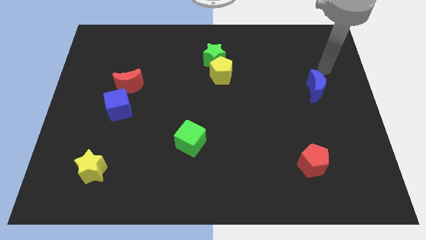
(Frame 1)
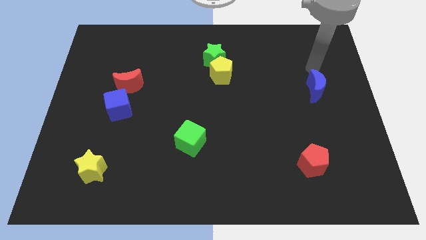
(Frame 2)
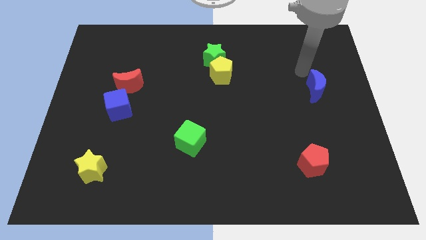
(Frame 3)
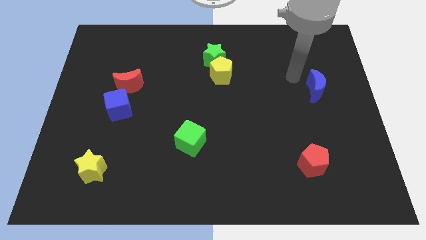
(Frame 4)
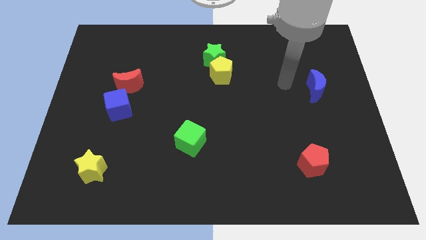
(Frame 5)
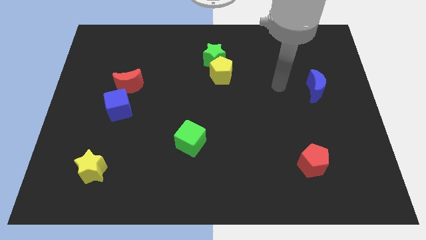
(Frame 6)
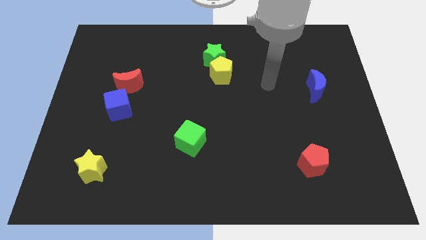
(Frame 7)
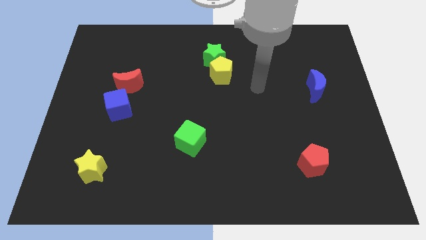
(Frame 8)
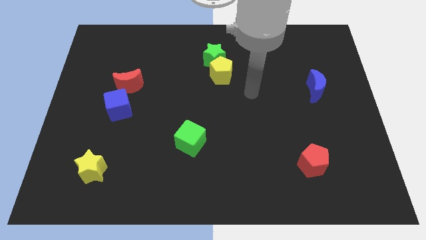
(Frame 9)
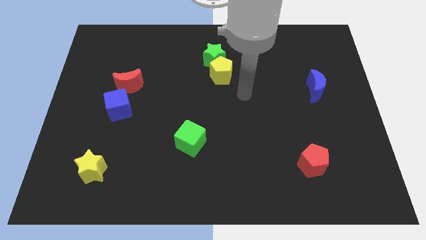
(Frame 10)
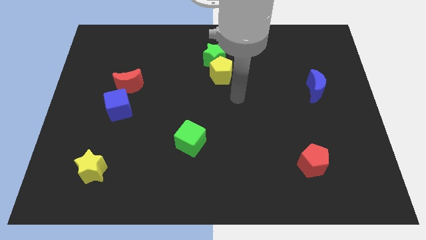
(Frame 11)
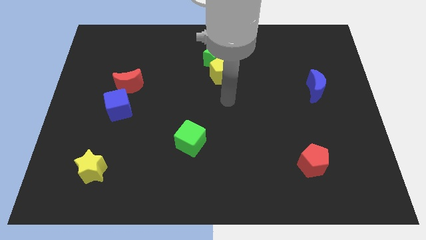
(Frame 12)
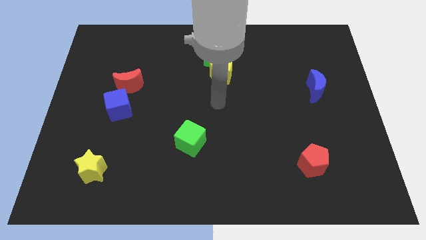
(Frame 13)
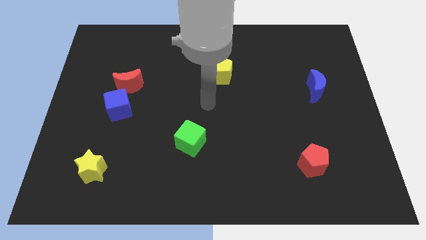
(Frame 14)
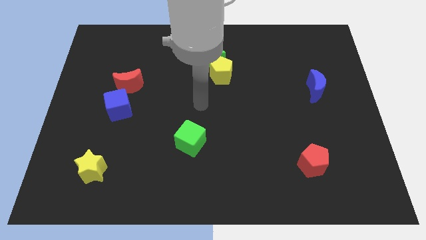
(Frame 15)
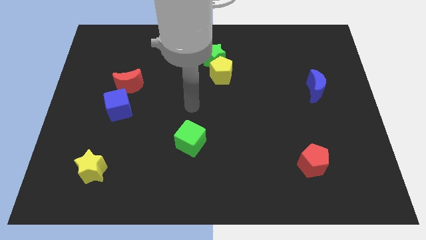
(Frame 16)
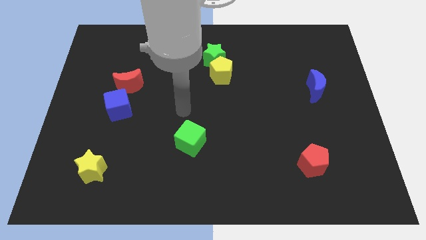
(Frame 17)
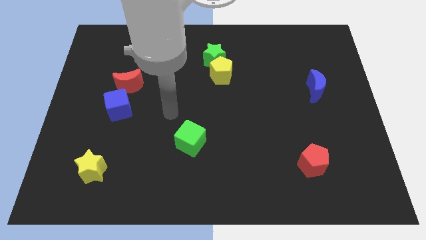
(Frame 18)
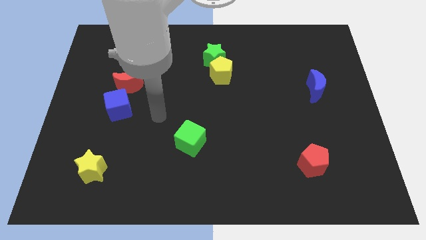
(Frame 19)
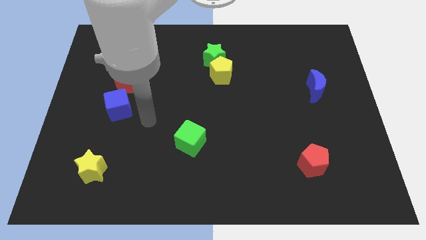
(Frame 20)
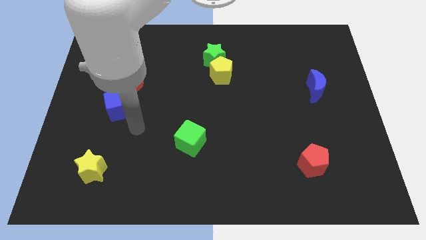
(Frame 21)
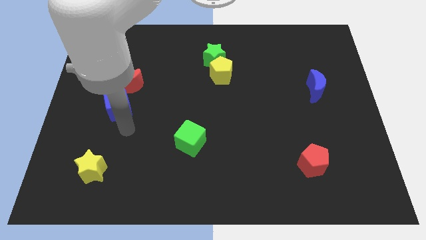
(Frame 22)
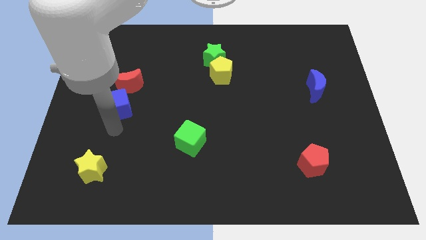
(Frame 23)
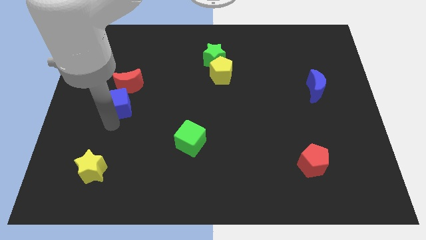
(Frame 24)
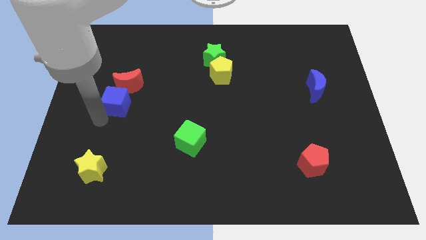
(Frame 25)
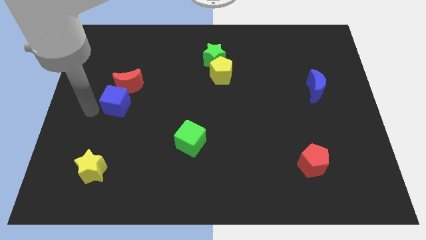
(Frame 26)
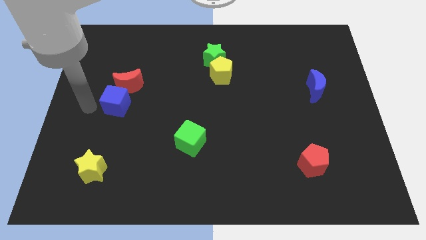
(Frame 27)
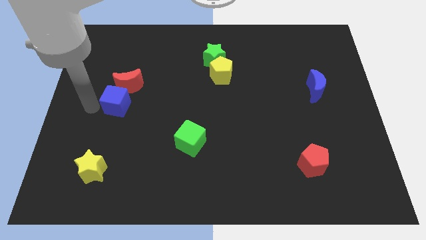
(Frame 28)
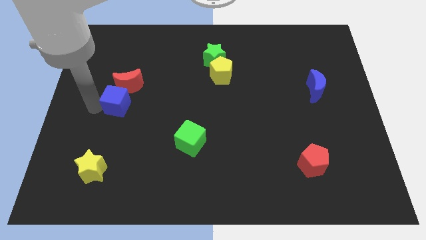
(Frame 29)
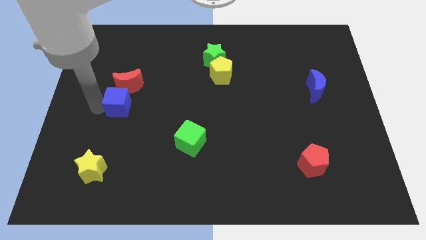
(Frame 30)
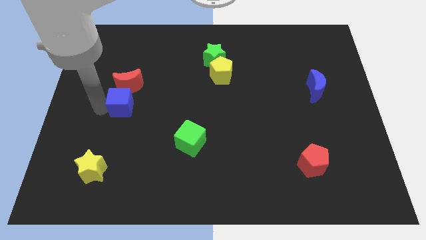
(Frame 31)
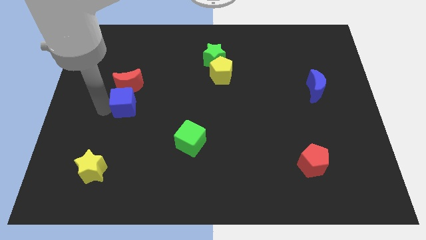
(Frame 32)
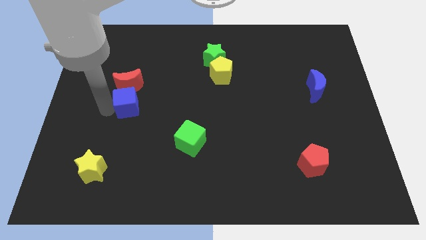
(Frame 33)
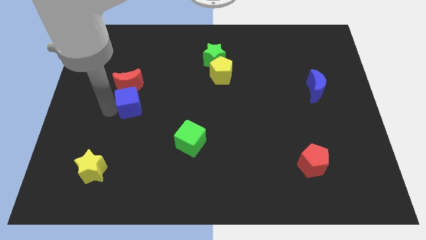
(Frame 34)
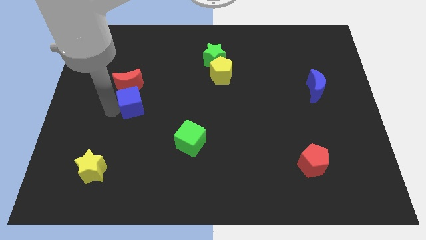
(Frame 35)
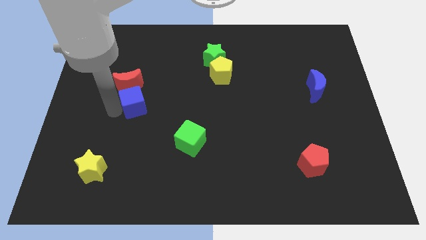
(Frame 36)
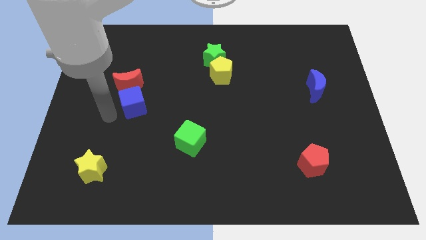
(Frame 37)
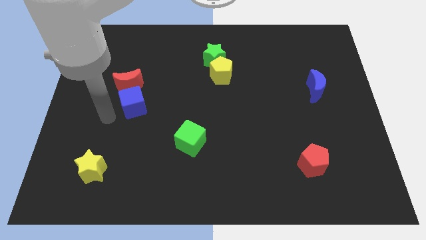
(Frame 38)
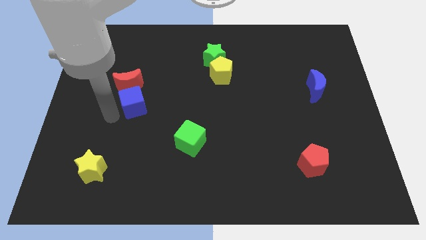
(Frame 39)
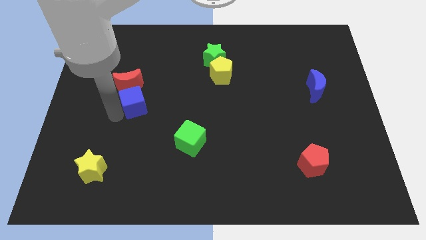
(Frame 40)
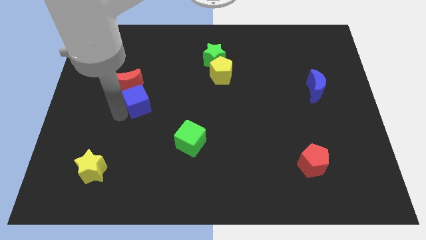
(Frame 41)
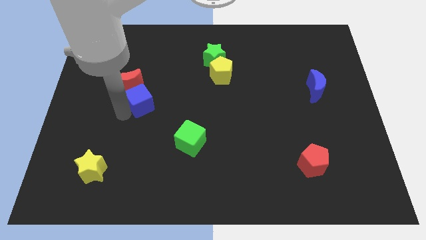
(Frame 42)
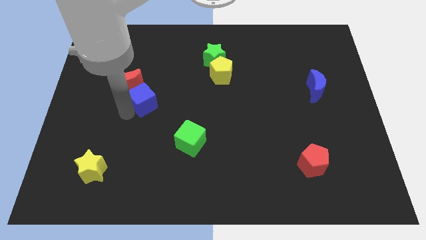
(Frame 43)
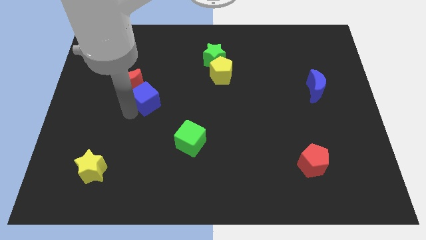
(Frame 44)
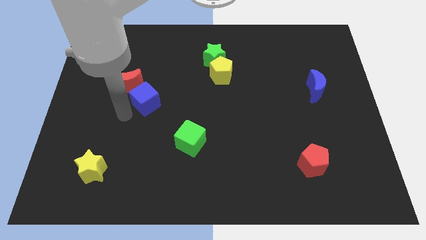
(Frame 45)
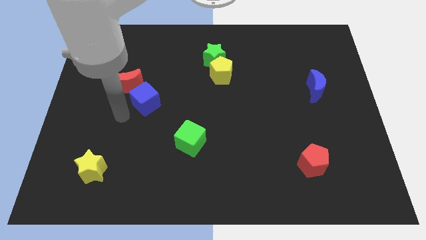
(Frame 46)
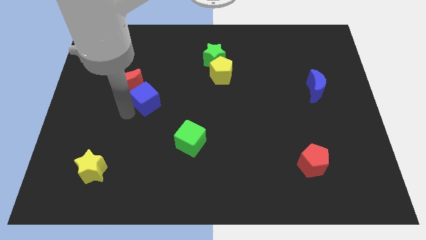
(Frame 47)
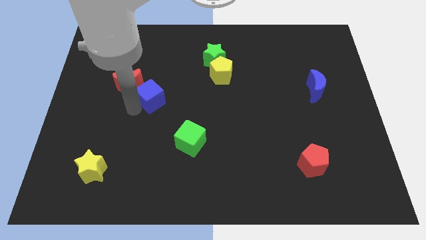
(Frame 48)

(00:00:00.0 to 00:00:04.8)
push the blue cube up and then to the right a bit

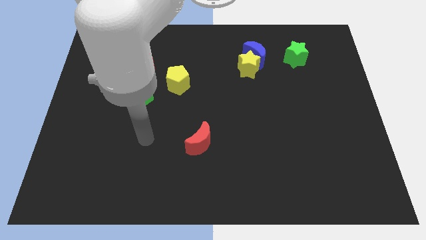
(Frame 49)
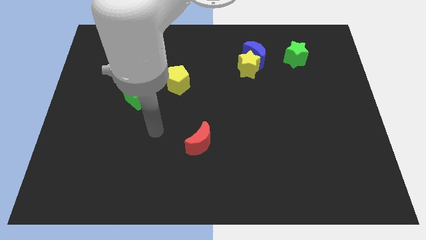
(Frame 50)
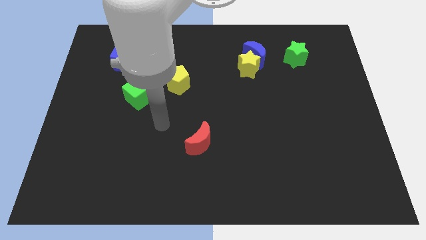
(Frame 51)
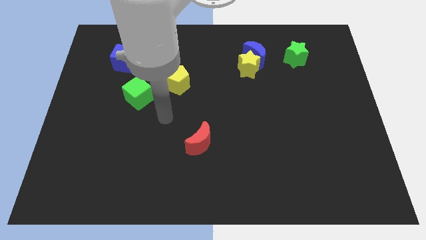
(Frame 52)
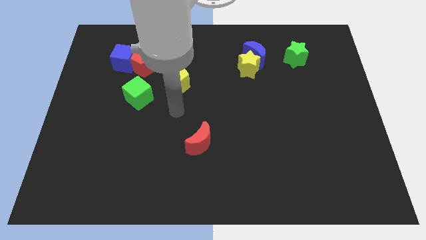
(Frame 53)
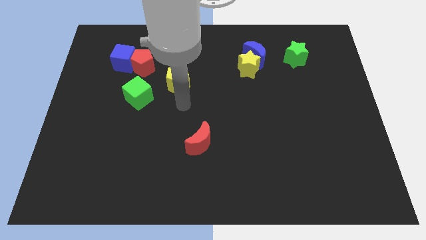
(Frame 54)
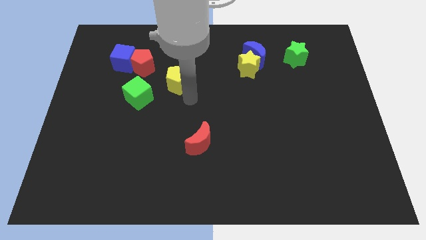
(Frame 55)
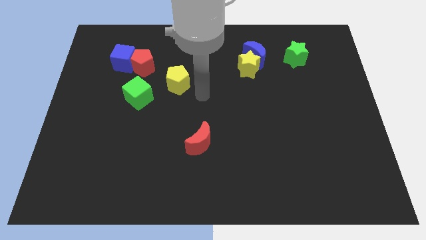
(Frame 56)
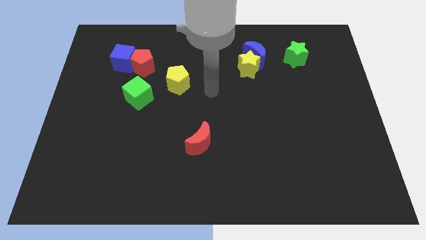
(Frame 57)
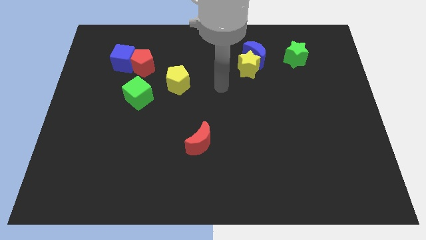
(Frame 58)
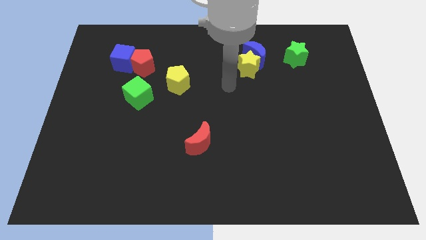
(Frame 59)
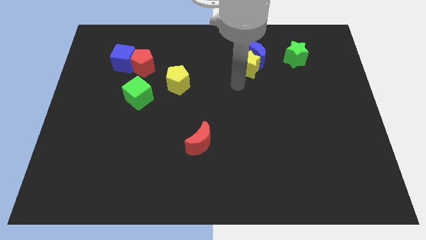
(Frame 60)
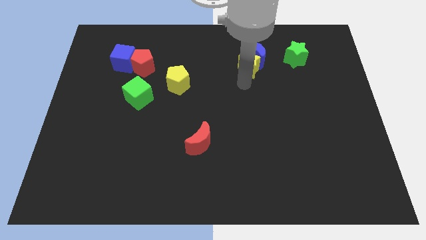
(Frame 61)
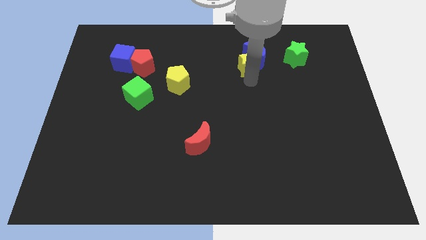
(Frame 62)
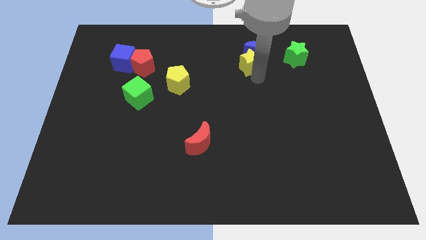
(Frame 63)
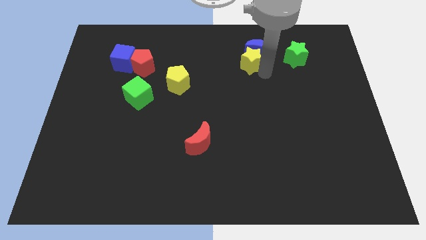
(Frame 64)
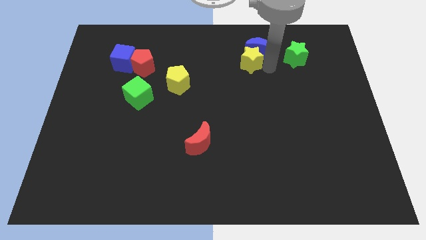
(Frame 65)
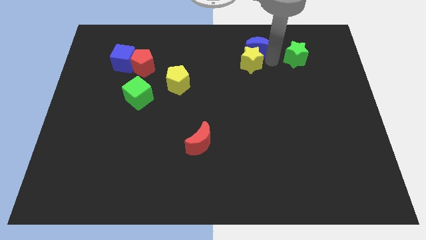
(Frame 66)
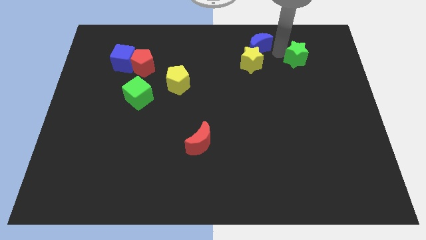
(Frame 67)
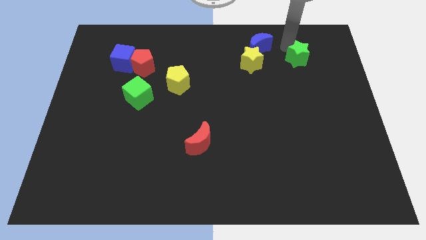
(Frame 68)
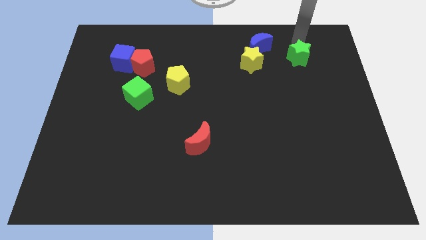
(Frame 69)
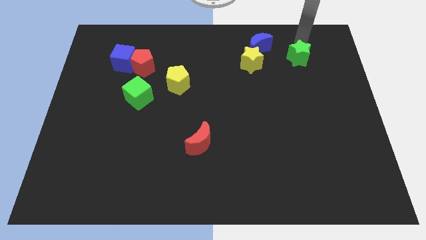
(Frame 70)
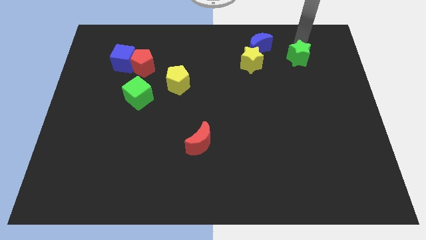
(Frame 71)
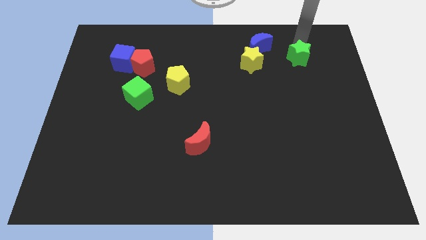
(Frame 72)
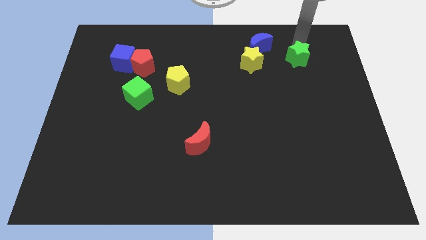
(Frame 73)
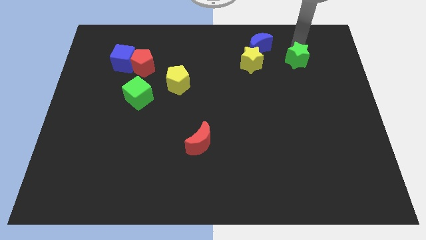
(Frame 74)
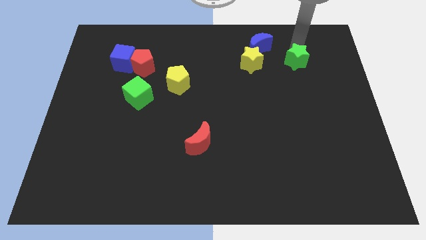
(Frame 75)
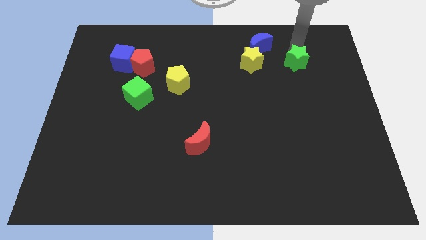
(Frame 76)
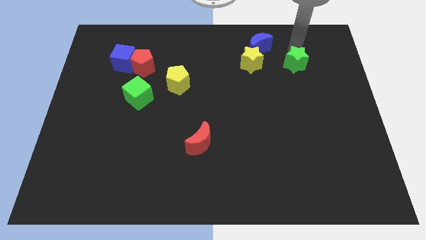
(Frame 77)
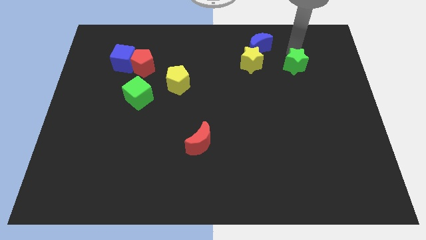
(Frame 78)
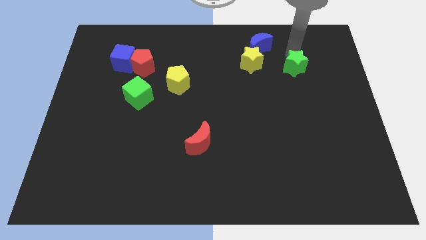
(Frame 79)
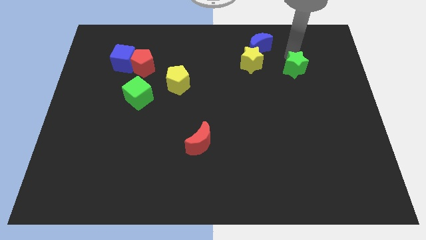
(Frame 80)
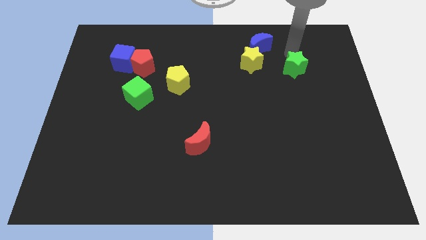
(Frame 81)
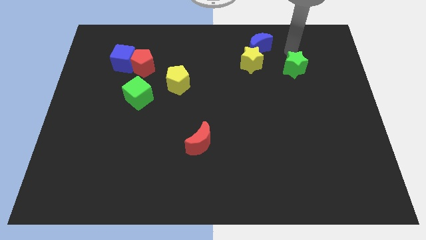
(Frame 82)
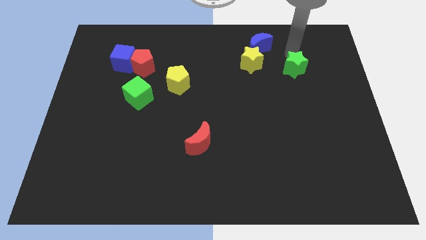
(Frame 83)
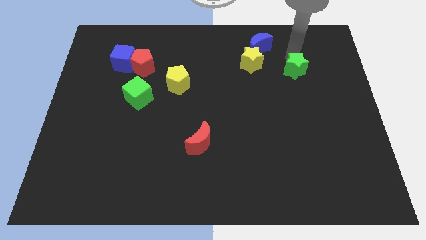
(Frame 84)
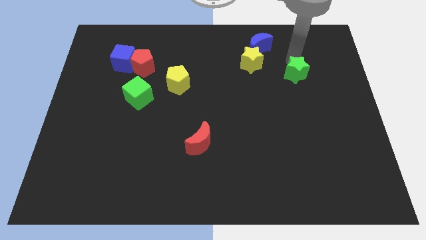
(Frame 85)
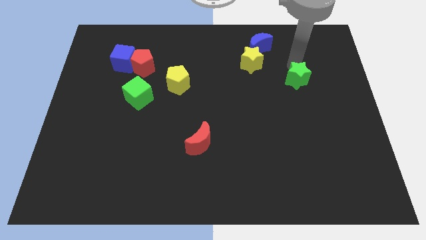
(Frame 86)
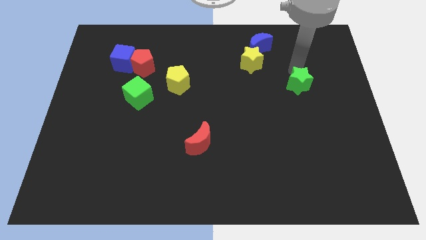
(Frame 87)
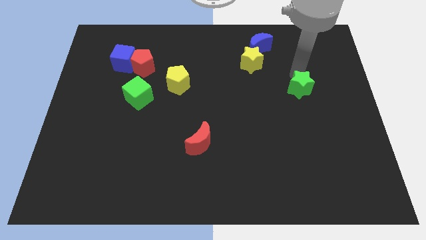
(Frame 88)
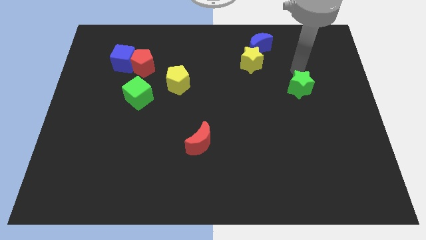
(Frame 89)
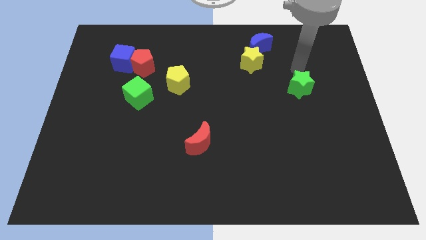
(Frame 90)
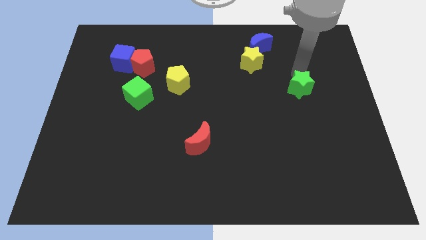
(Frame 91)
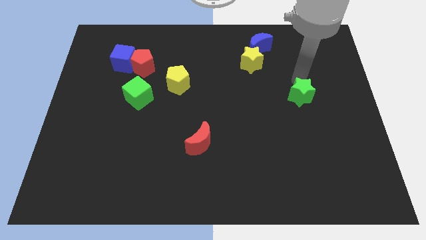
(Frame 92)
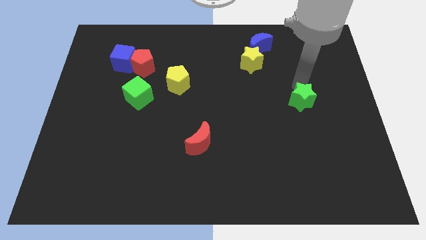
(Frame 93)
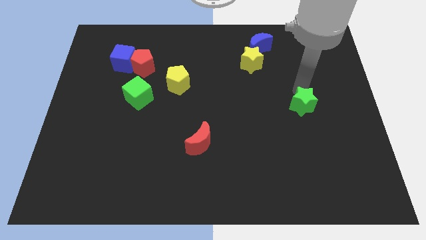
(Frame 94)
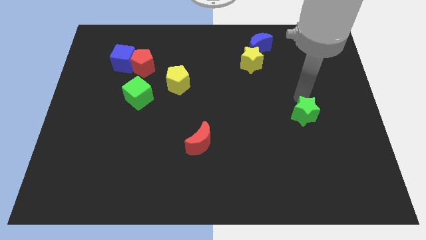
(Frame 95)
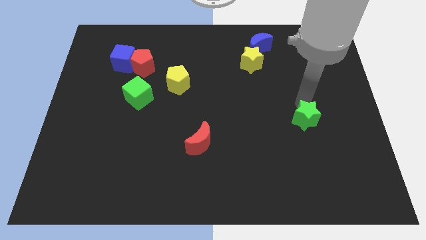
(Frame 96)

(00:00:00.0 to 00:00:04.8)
move the green star downwards
